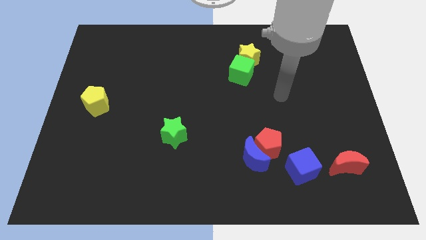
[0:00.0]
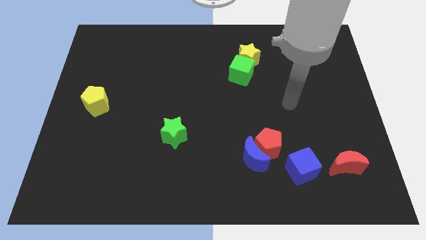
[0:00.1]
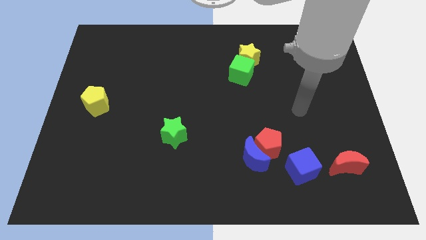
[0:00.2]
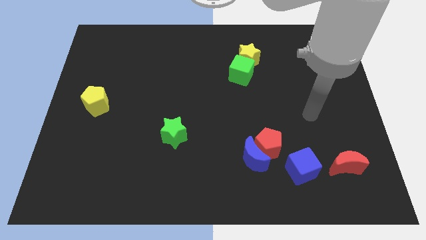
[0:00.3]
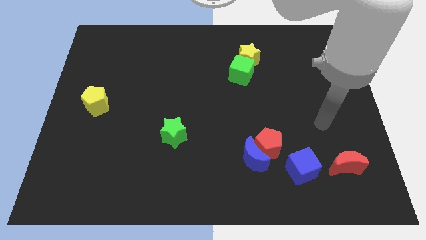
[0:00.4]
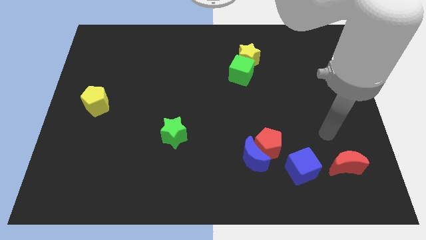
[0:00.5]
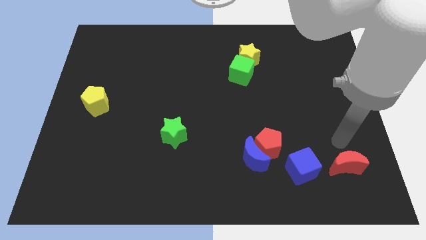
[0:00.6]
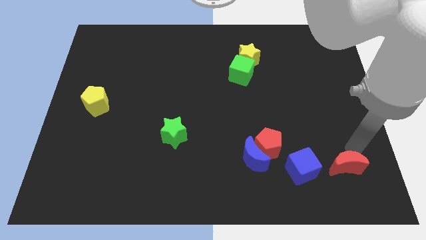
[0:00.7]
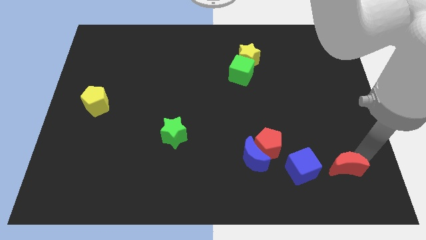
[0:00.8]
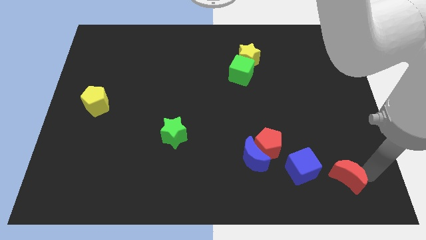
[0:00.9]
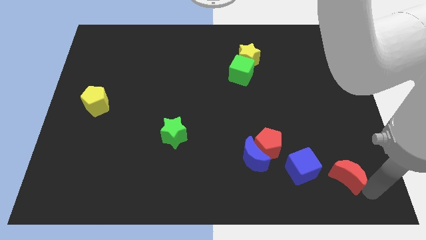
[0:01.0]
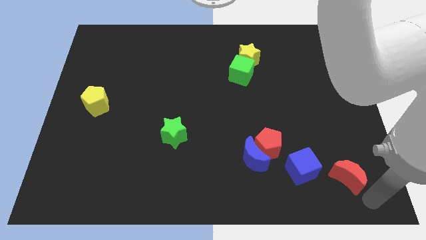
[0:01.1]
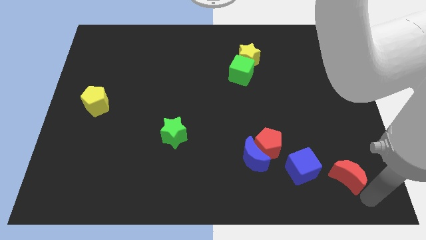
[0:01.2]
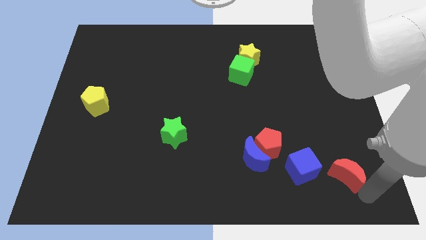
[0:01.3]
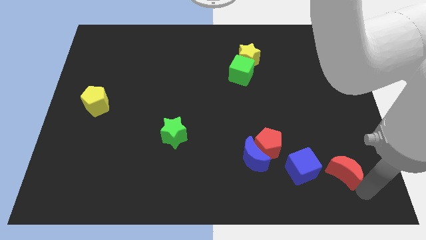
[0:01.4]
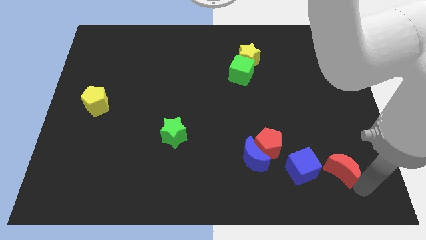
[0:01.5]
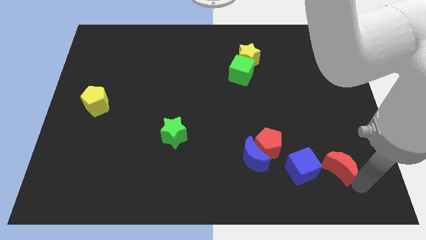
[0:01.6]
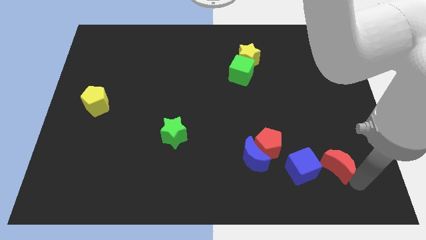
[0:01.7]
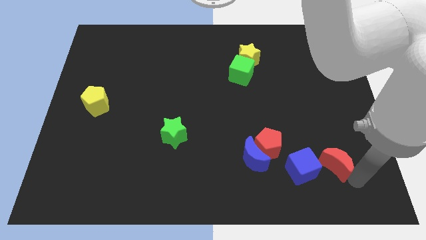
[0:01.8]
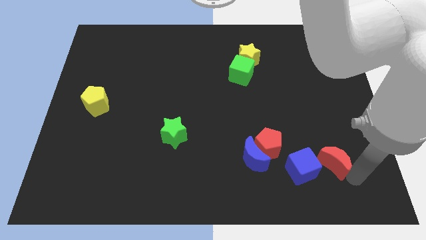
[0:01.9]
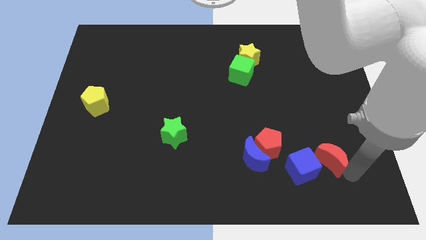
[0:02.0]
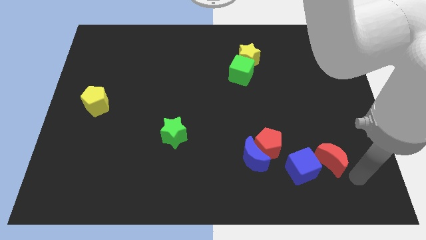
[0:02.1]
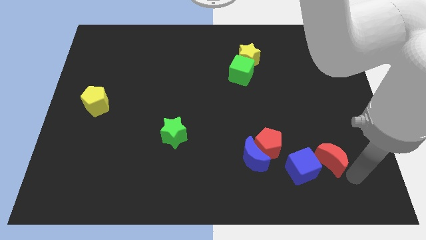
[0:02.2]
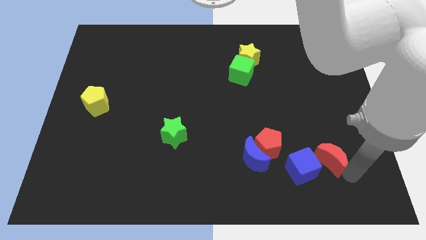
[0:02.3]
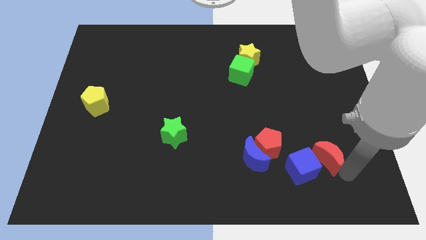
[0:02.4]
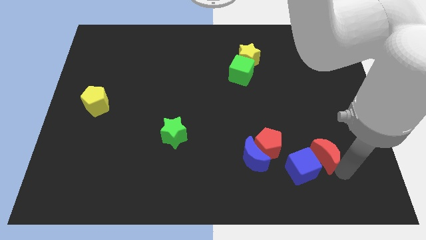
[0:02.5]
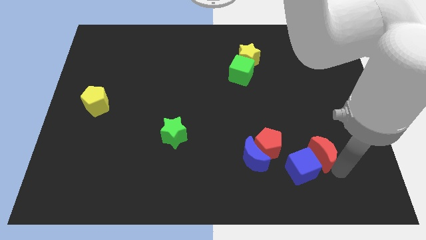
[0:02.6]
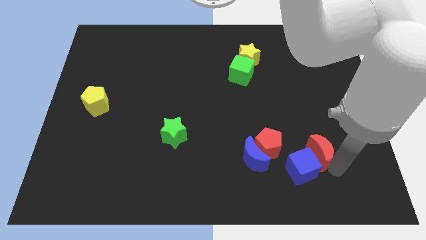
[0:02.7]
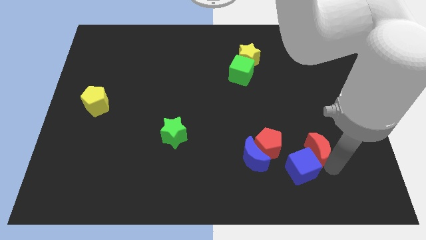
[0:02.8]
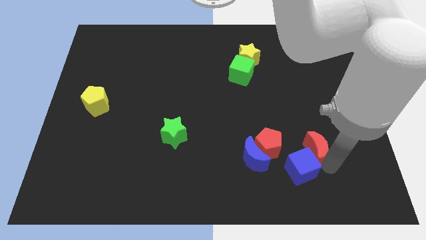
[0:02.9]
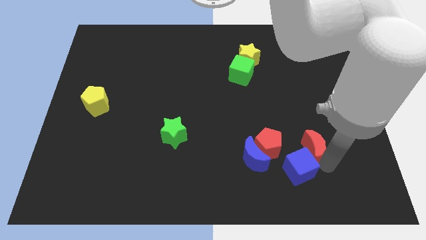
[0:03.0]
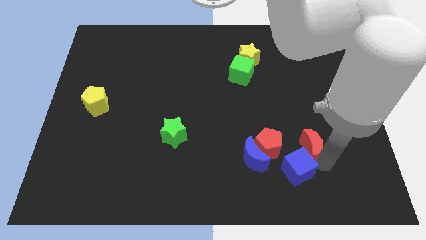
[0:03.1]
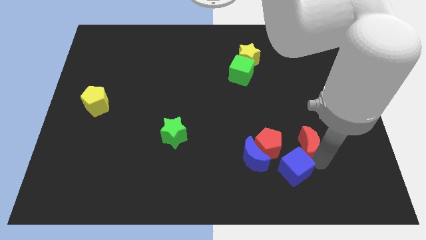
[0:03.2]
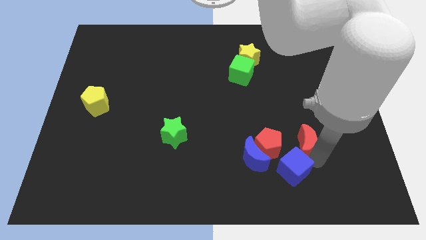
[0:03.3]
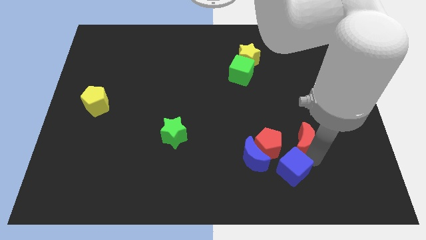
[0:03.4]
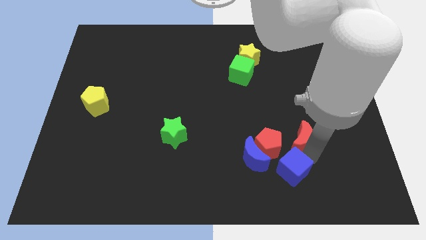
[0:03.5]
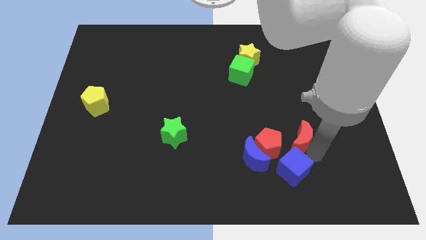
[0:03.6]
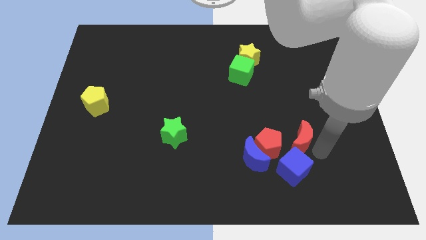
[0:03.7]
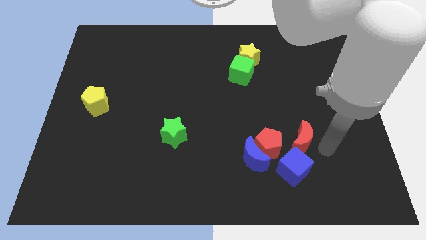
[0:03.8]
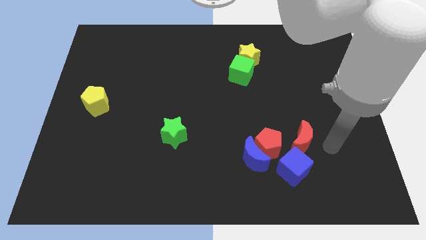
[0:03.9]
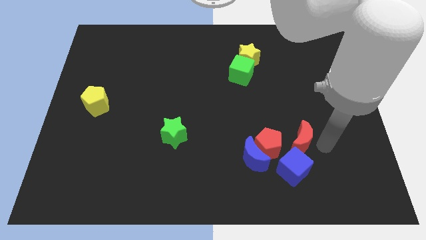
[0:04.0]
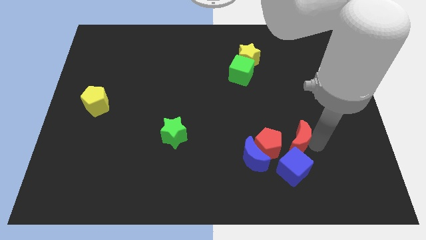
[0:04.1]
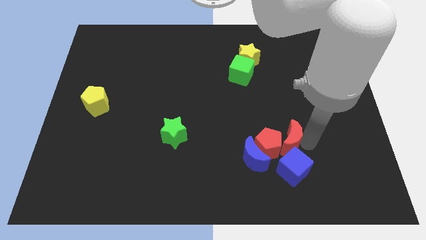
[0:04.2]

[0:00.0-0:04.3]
push the red moon to the top right of the blue moon

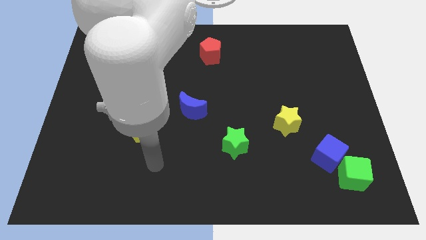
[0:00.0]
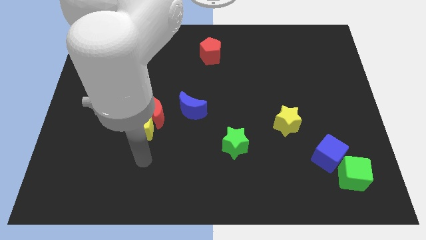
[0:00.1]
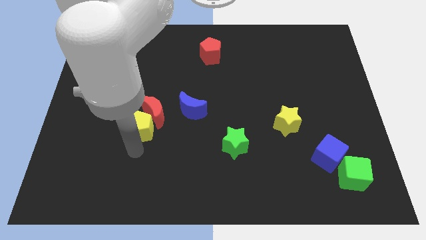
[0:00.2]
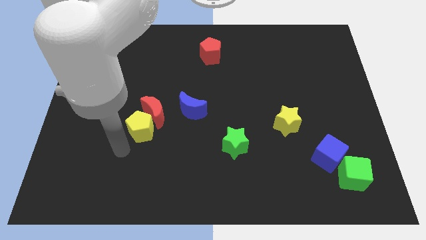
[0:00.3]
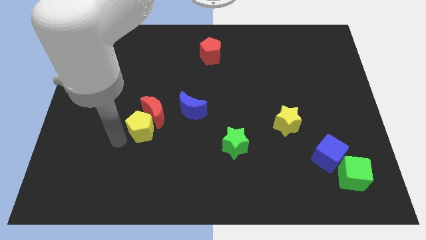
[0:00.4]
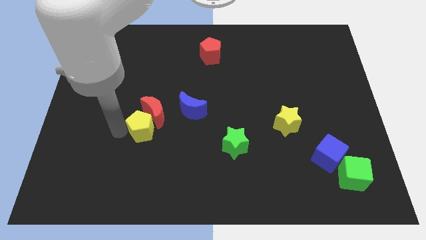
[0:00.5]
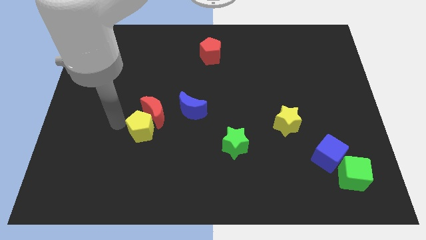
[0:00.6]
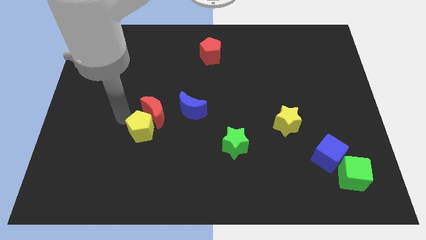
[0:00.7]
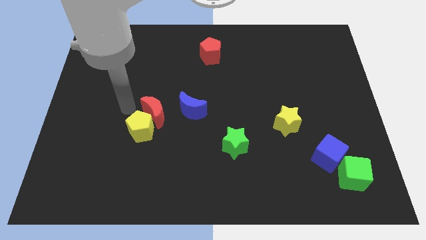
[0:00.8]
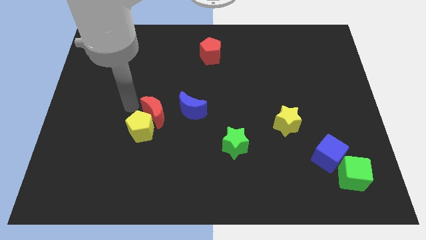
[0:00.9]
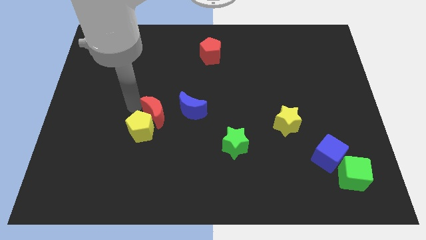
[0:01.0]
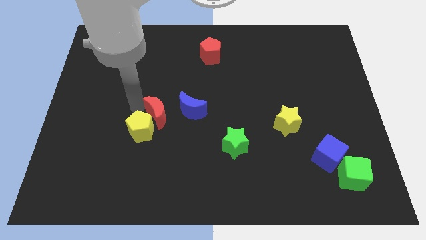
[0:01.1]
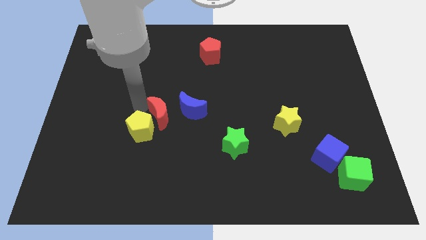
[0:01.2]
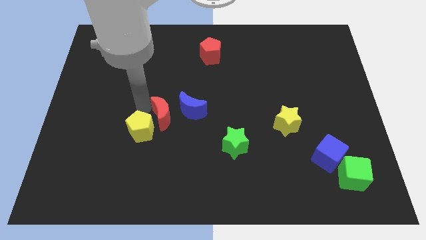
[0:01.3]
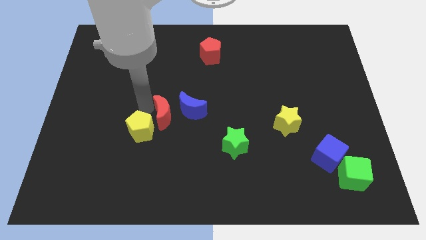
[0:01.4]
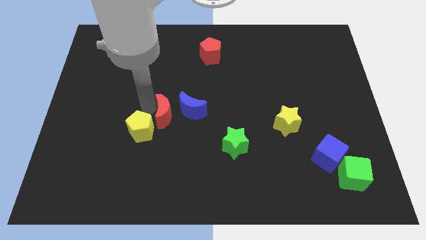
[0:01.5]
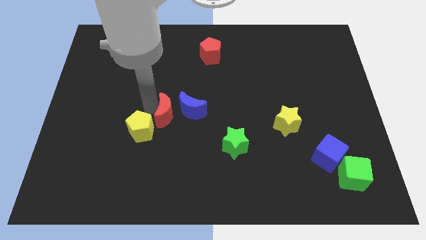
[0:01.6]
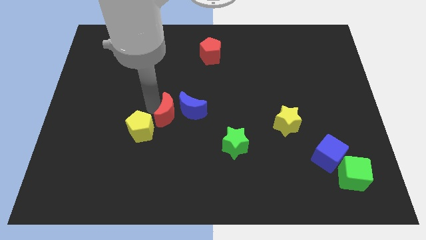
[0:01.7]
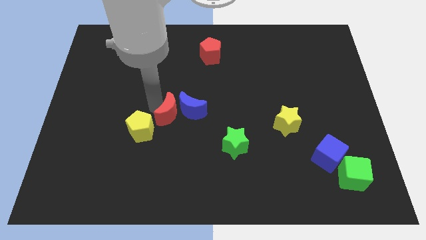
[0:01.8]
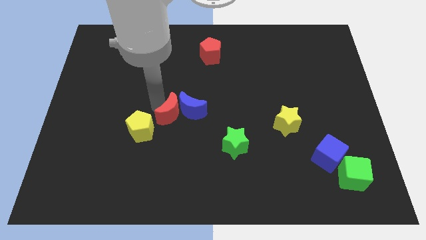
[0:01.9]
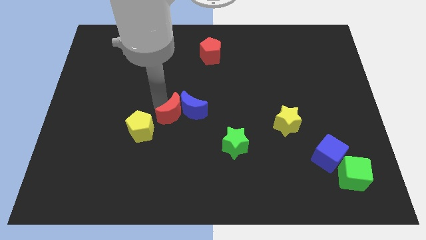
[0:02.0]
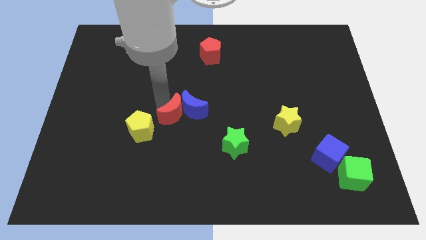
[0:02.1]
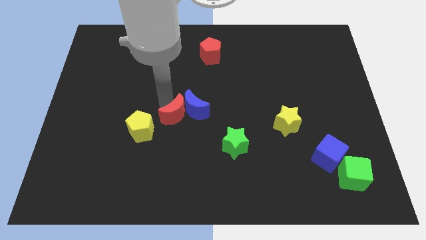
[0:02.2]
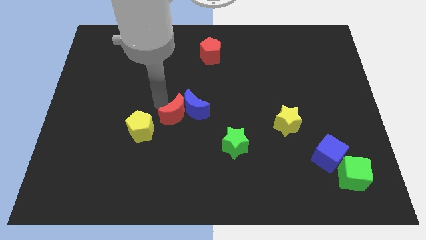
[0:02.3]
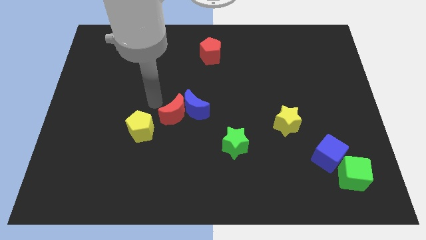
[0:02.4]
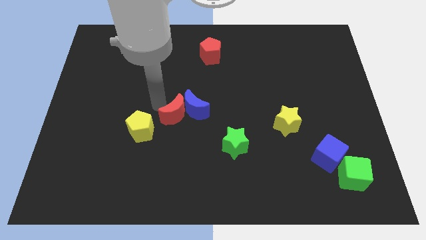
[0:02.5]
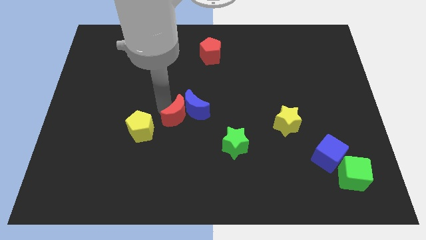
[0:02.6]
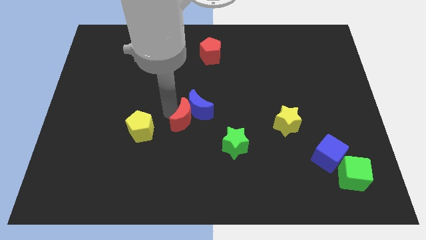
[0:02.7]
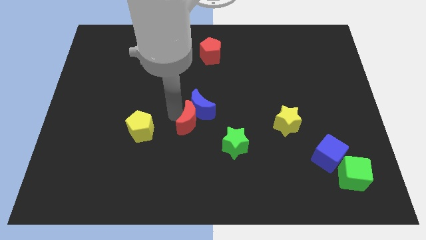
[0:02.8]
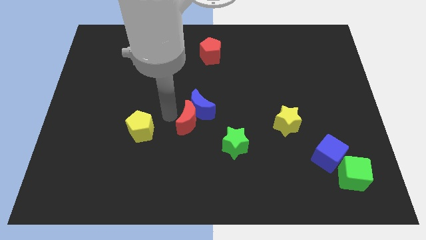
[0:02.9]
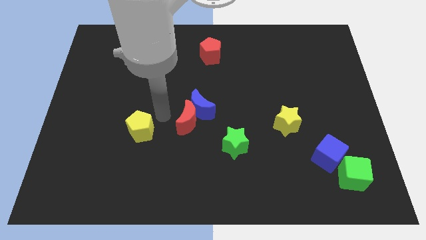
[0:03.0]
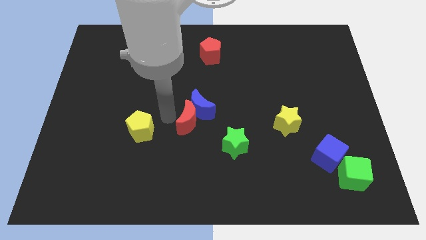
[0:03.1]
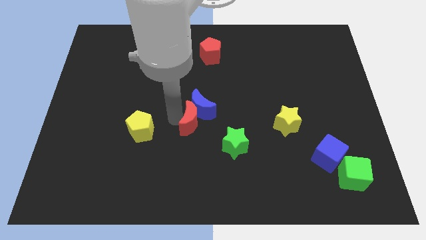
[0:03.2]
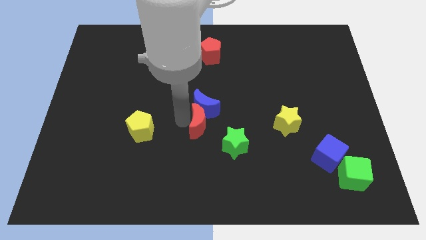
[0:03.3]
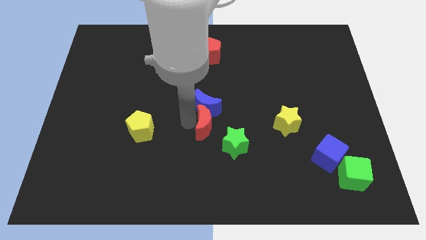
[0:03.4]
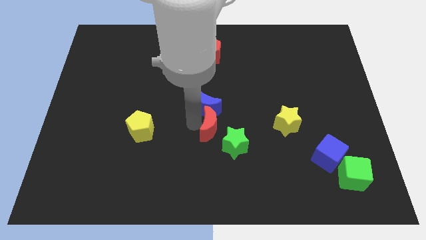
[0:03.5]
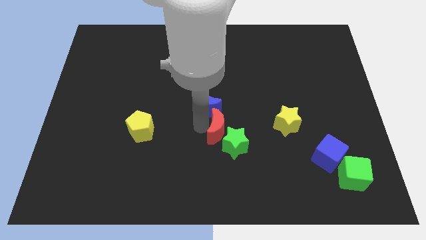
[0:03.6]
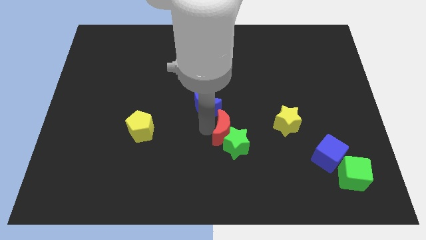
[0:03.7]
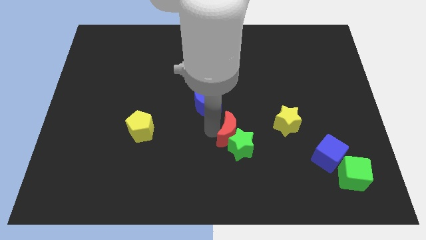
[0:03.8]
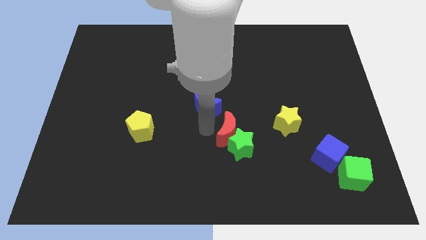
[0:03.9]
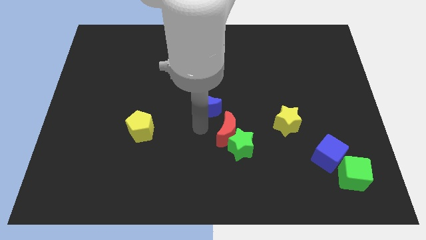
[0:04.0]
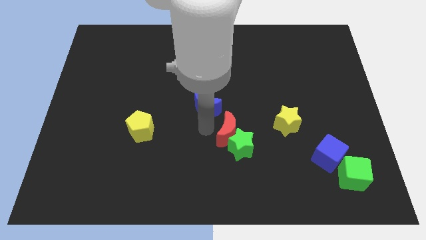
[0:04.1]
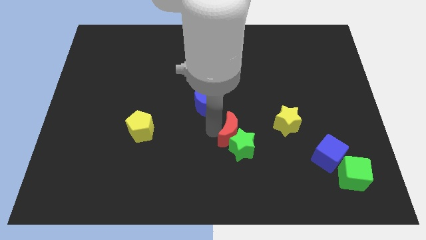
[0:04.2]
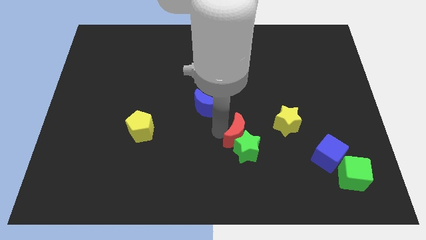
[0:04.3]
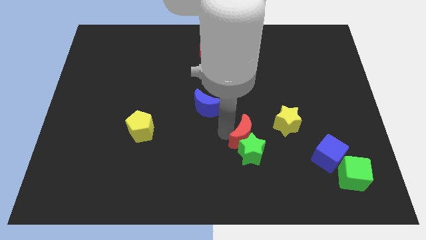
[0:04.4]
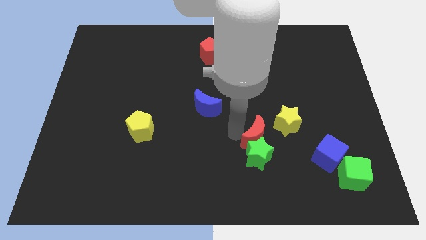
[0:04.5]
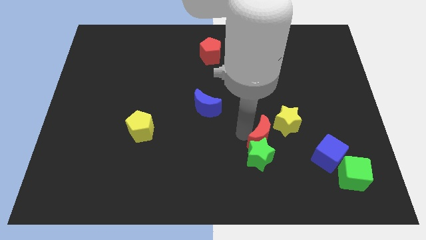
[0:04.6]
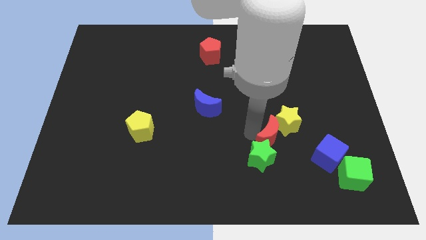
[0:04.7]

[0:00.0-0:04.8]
push the red moon to the left side of the blue cube
